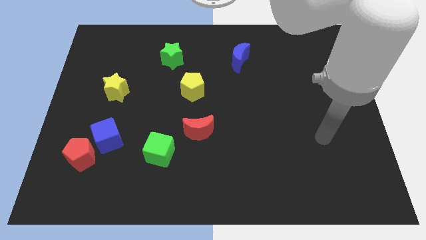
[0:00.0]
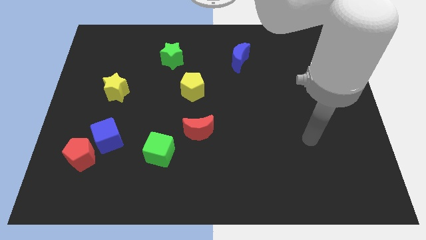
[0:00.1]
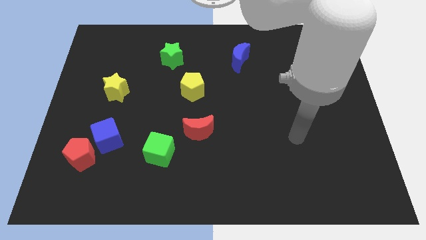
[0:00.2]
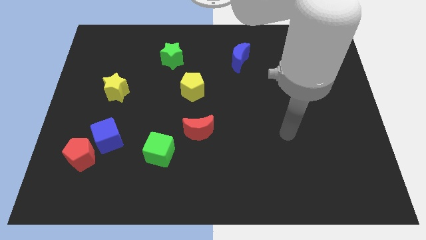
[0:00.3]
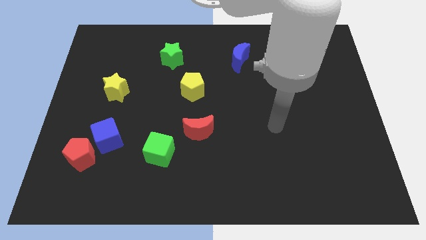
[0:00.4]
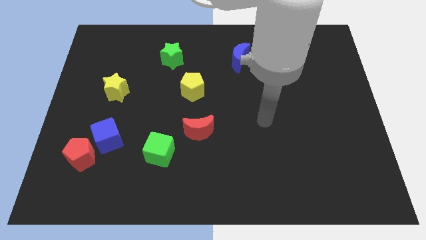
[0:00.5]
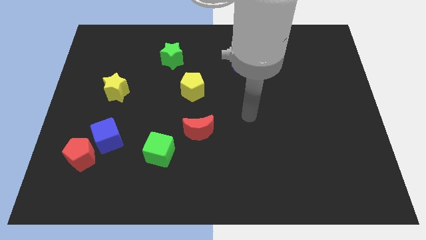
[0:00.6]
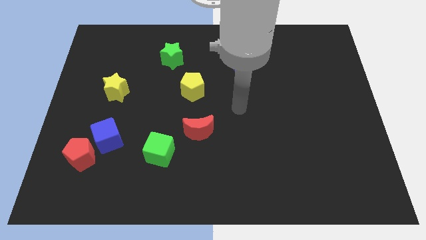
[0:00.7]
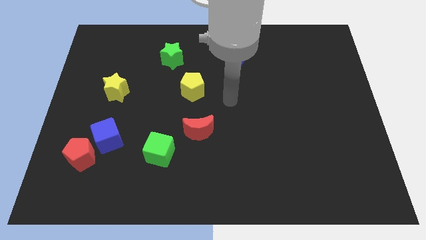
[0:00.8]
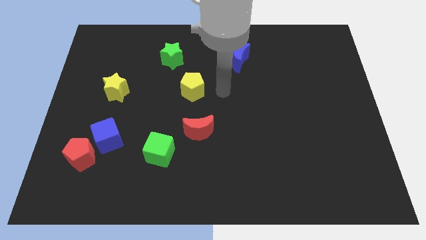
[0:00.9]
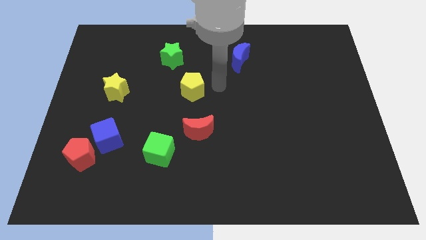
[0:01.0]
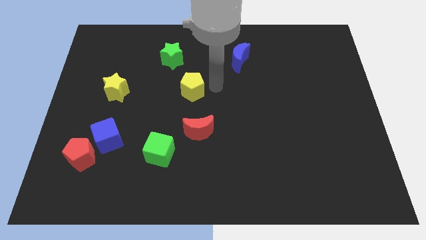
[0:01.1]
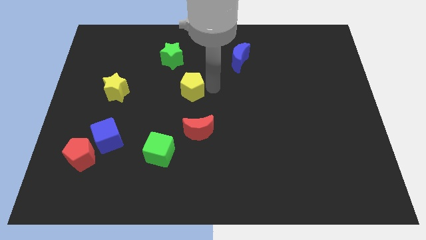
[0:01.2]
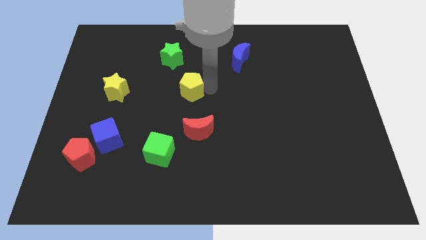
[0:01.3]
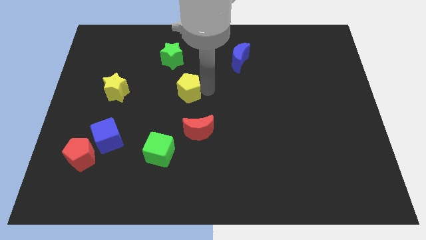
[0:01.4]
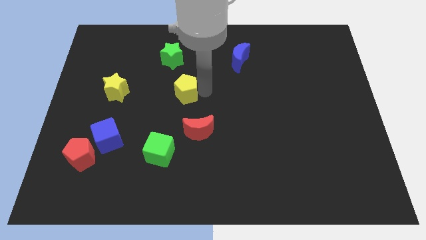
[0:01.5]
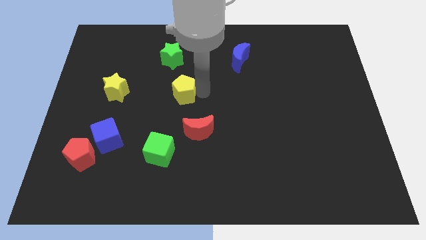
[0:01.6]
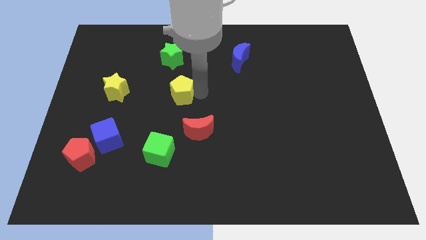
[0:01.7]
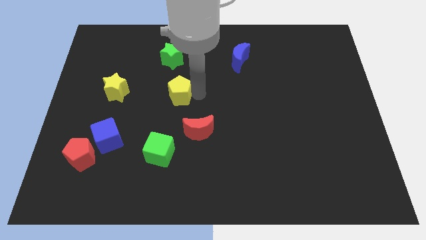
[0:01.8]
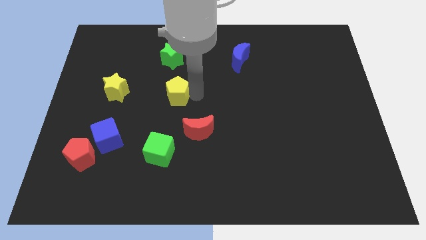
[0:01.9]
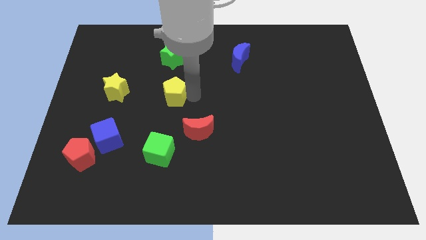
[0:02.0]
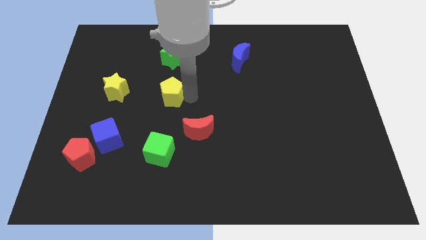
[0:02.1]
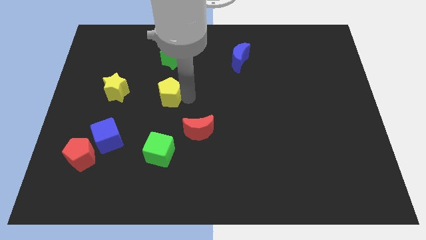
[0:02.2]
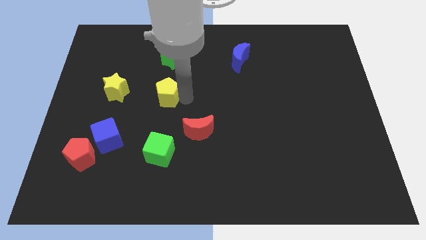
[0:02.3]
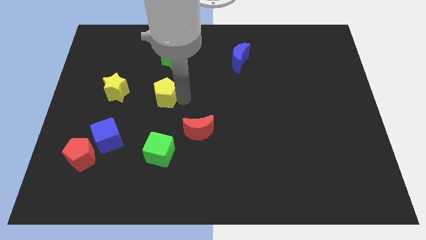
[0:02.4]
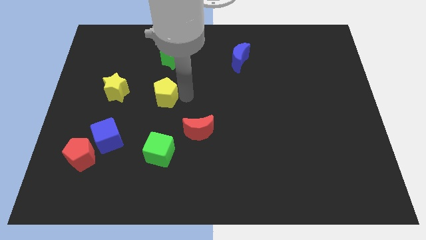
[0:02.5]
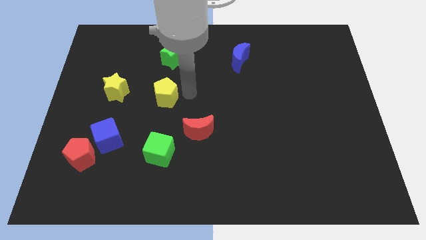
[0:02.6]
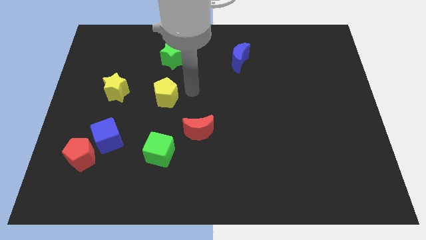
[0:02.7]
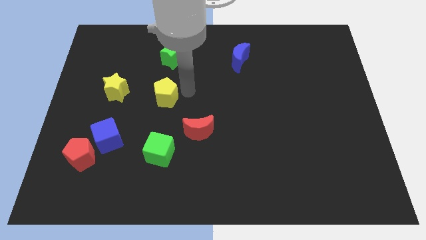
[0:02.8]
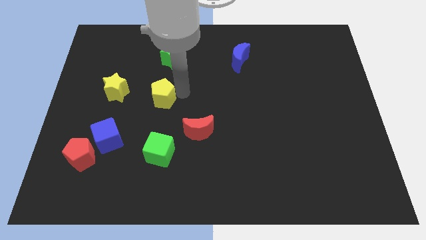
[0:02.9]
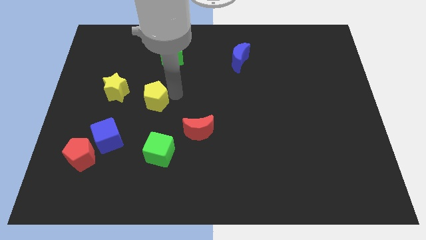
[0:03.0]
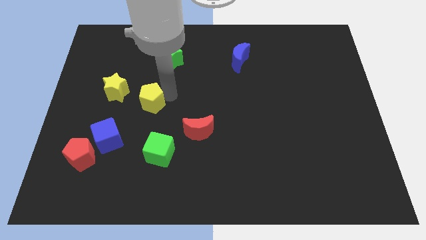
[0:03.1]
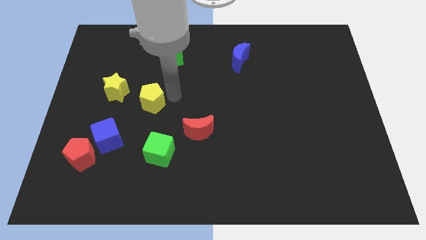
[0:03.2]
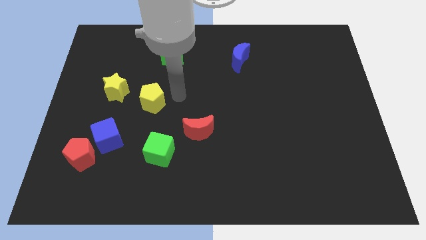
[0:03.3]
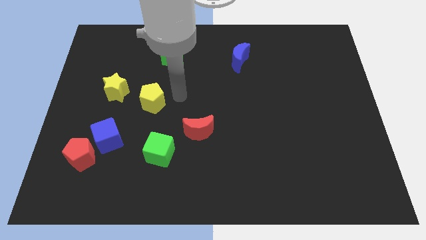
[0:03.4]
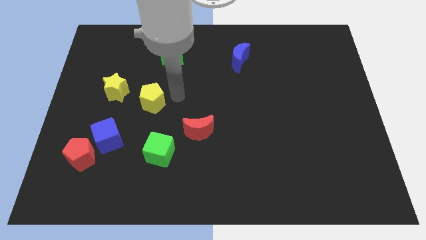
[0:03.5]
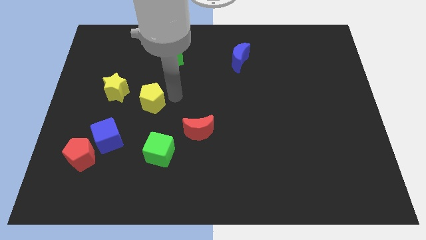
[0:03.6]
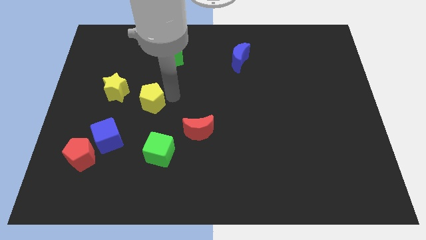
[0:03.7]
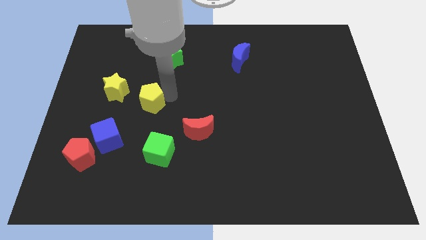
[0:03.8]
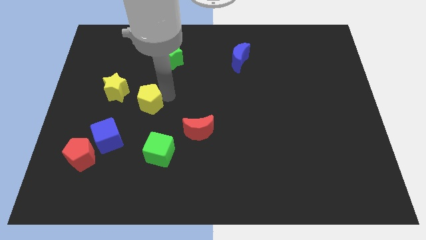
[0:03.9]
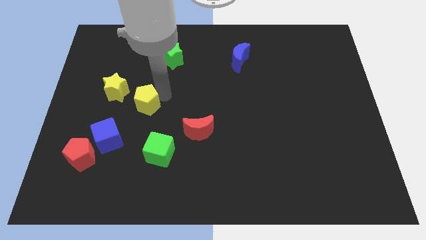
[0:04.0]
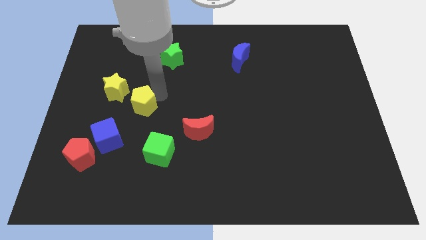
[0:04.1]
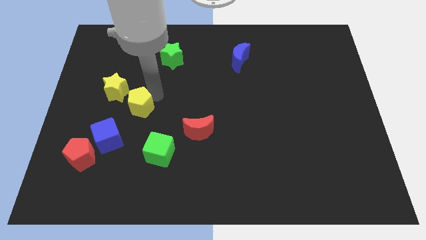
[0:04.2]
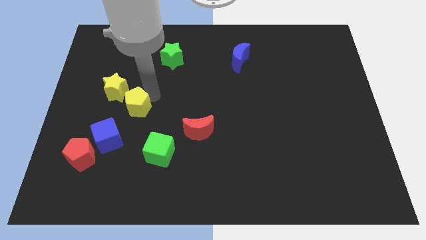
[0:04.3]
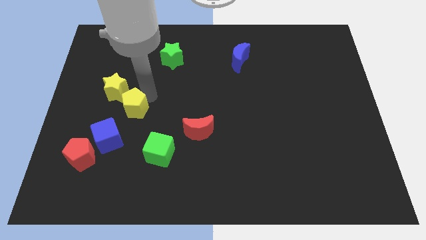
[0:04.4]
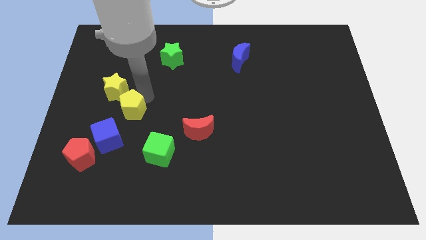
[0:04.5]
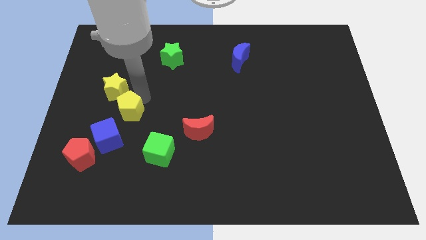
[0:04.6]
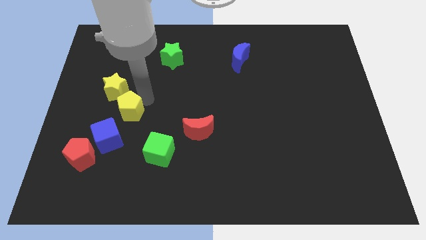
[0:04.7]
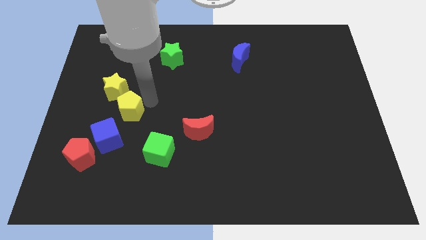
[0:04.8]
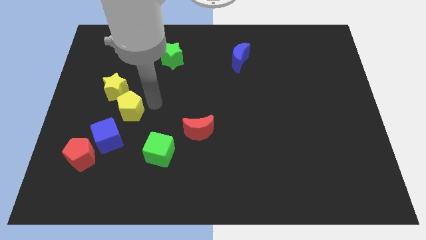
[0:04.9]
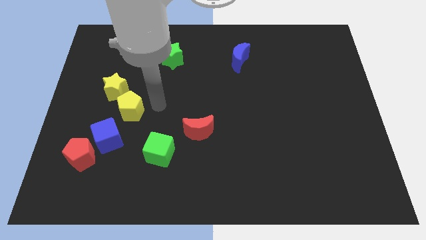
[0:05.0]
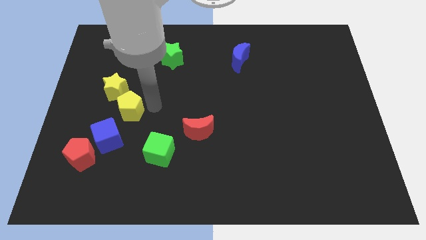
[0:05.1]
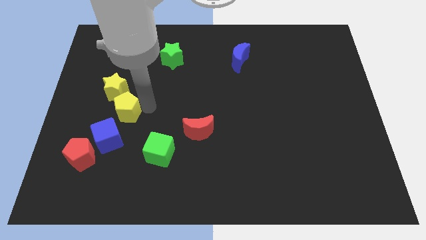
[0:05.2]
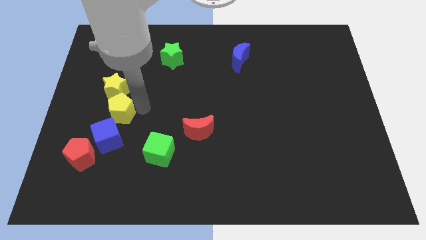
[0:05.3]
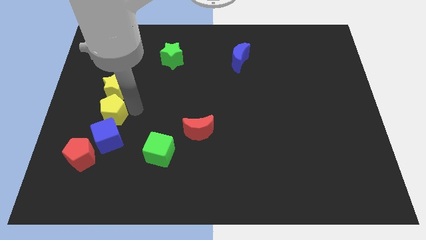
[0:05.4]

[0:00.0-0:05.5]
push the yellow pentagon to the top left of the blue cube

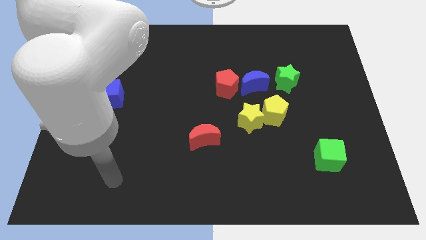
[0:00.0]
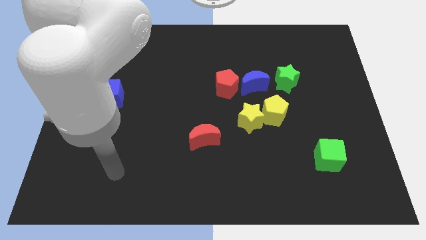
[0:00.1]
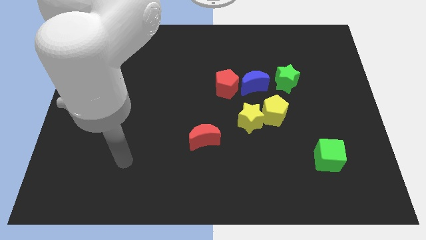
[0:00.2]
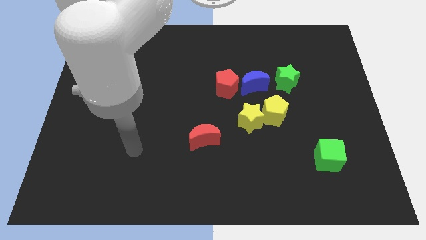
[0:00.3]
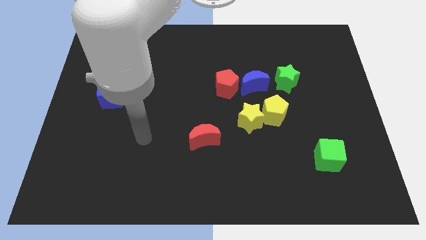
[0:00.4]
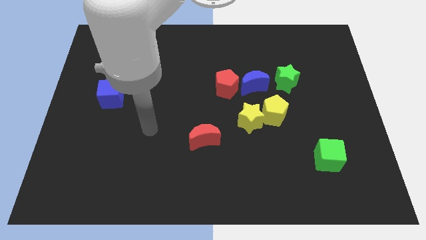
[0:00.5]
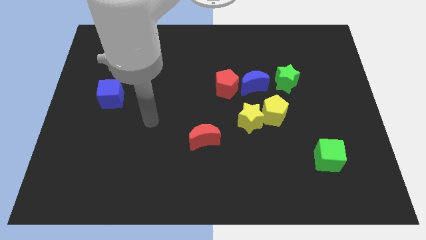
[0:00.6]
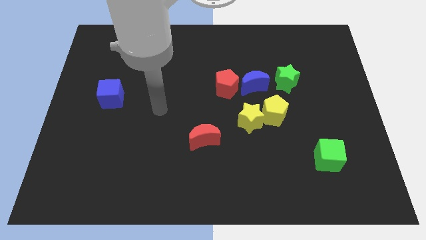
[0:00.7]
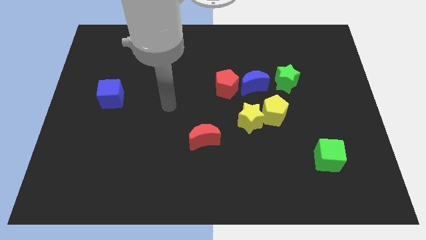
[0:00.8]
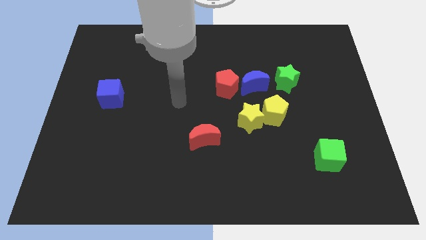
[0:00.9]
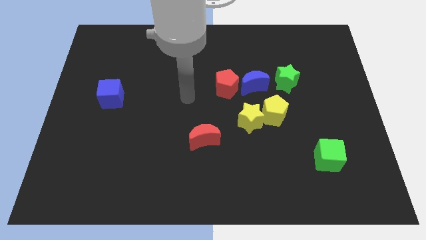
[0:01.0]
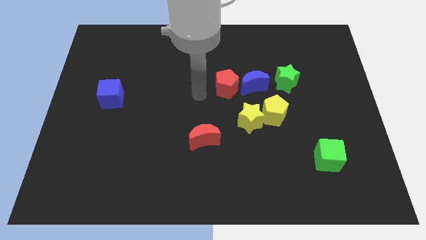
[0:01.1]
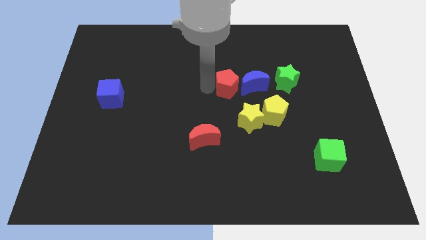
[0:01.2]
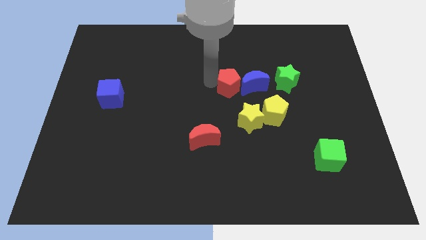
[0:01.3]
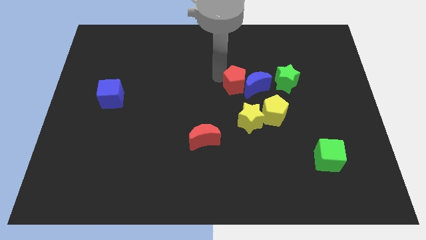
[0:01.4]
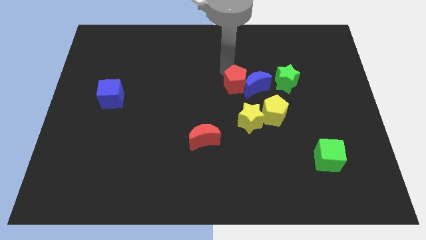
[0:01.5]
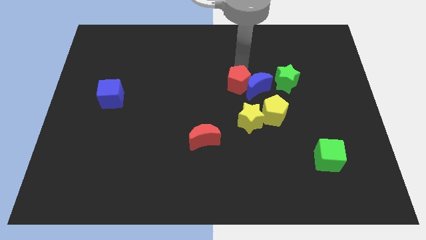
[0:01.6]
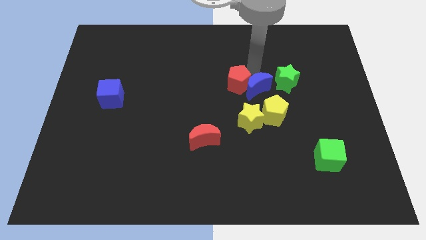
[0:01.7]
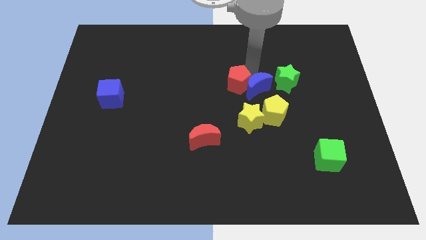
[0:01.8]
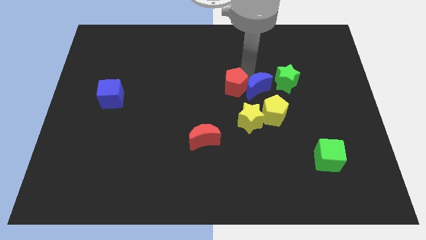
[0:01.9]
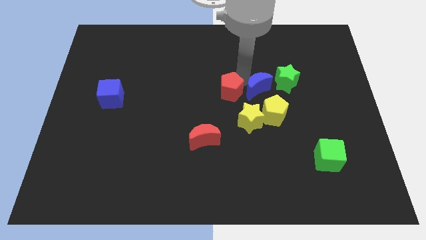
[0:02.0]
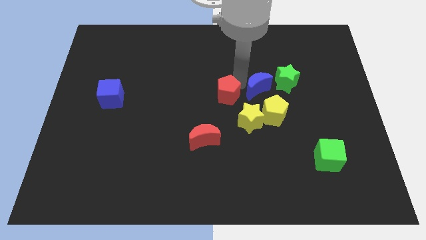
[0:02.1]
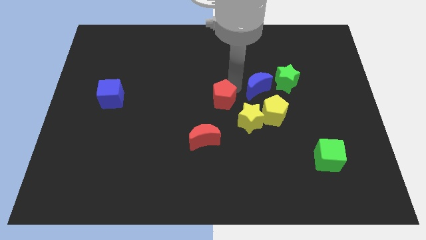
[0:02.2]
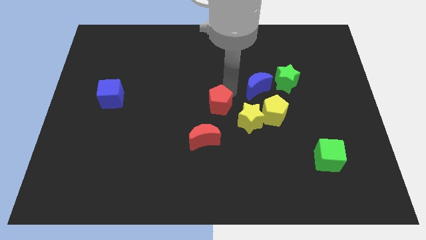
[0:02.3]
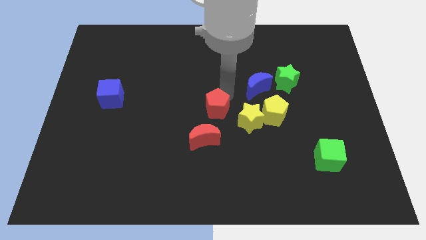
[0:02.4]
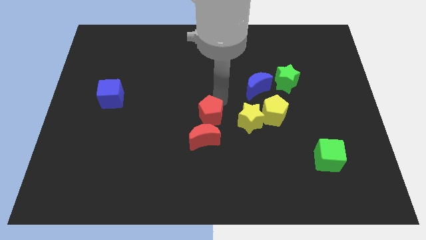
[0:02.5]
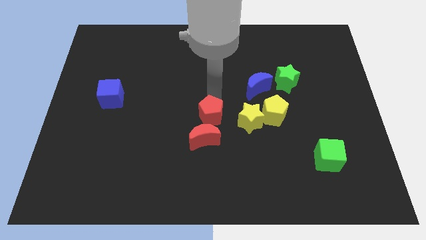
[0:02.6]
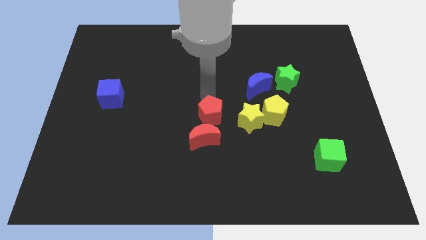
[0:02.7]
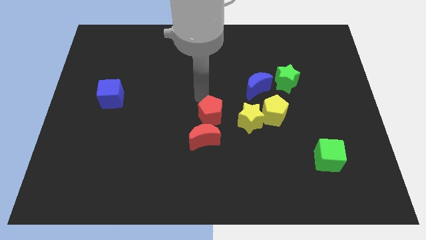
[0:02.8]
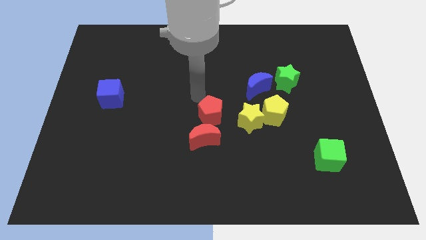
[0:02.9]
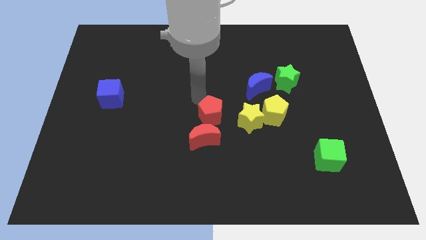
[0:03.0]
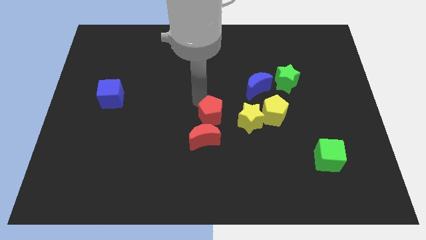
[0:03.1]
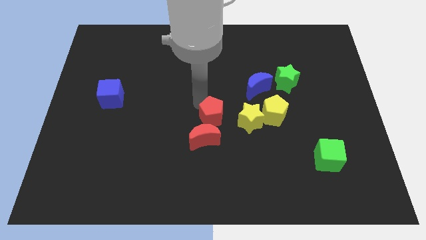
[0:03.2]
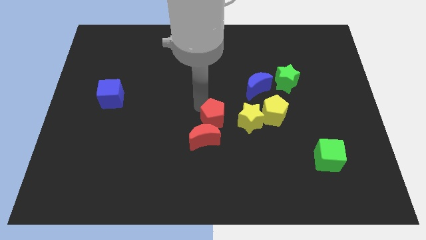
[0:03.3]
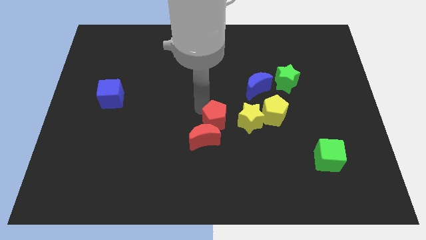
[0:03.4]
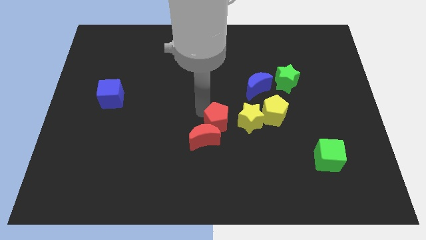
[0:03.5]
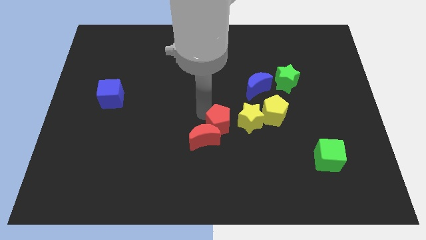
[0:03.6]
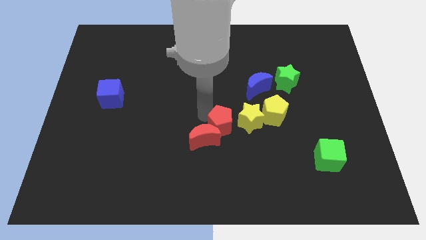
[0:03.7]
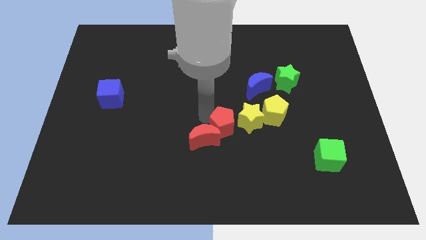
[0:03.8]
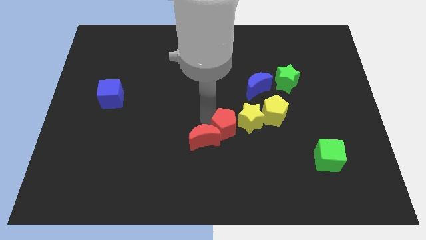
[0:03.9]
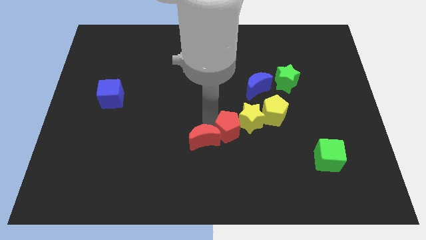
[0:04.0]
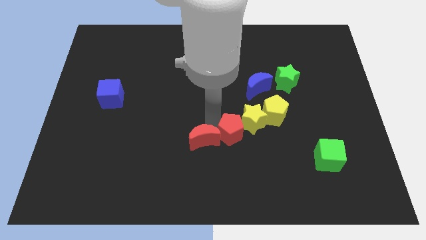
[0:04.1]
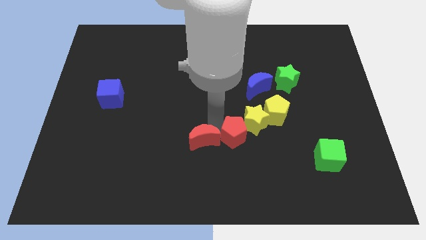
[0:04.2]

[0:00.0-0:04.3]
push the red pentagon to the bottom side of the yellow star
